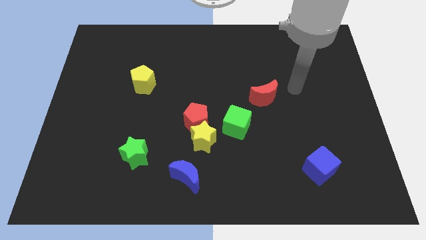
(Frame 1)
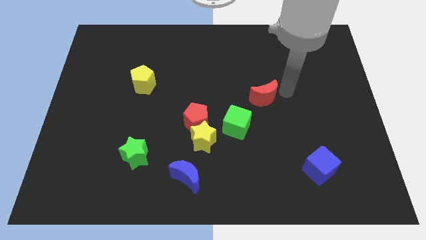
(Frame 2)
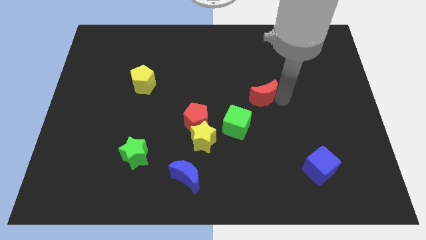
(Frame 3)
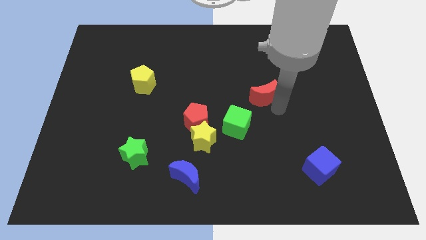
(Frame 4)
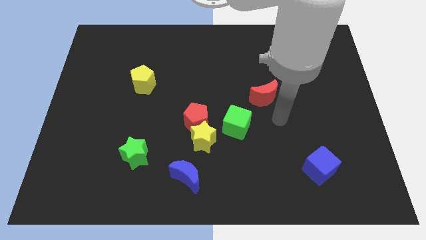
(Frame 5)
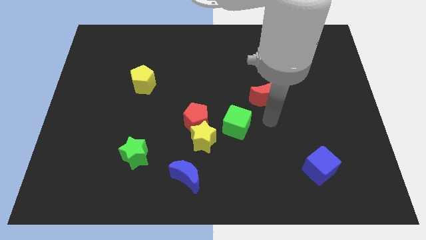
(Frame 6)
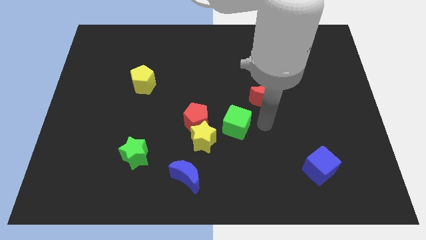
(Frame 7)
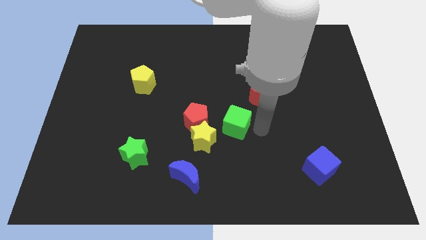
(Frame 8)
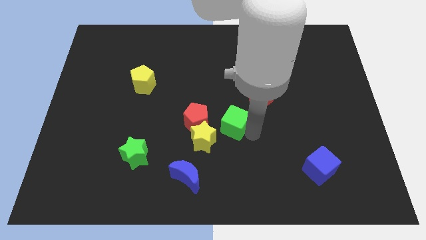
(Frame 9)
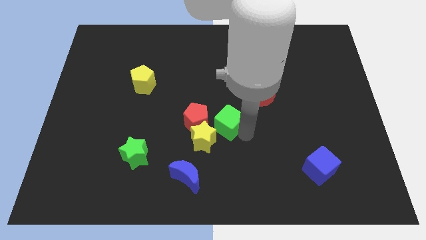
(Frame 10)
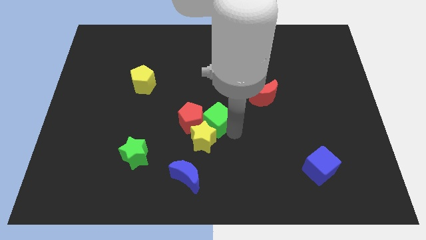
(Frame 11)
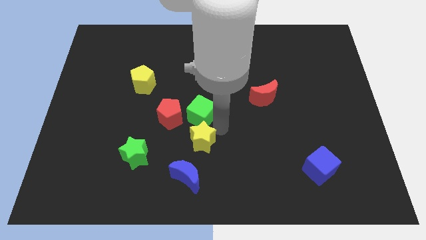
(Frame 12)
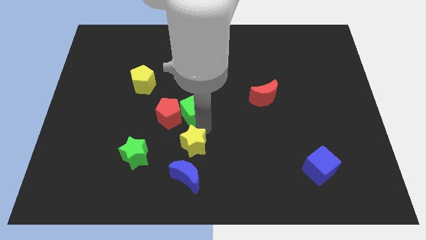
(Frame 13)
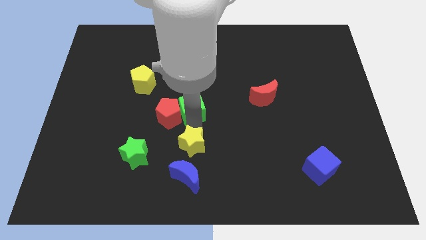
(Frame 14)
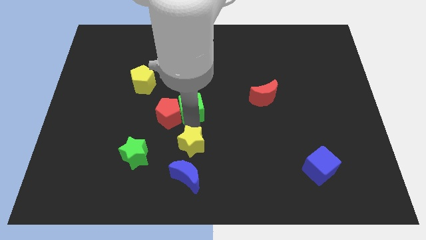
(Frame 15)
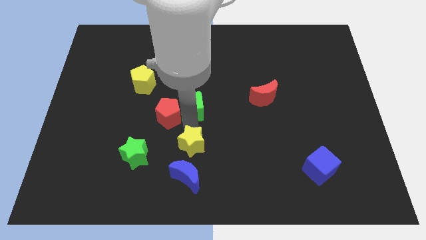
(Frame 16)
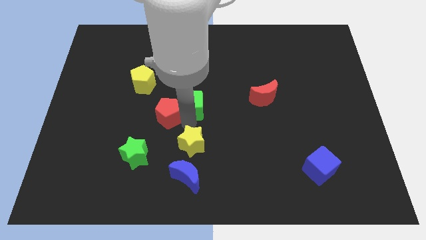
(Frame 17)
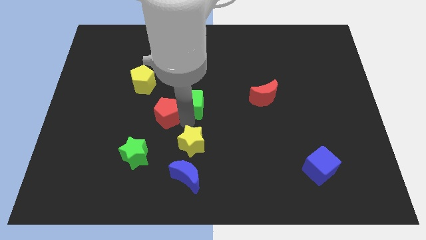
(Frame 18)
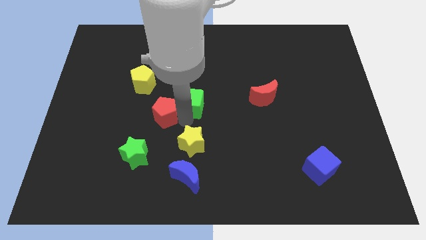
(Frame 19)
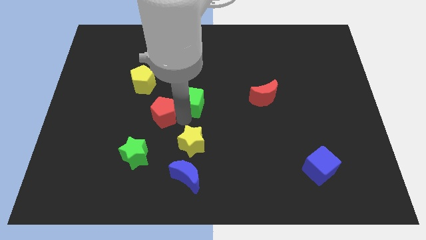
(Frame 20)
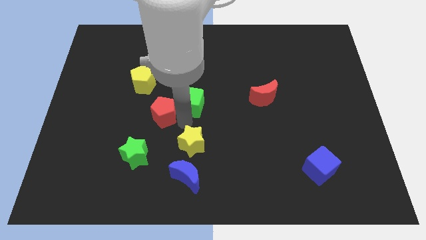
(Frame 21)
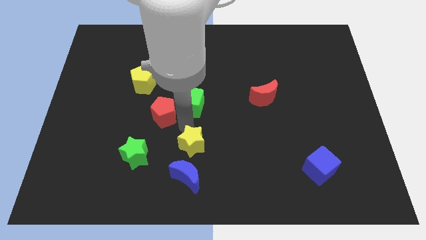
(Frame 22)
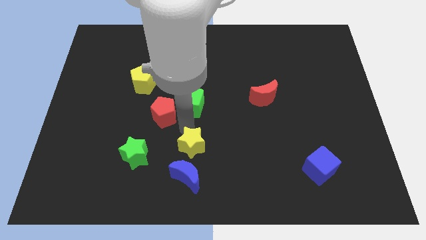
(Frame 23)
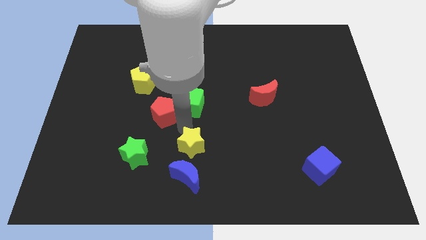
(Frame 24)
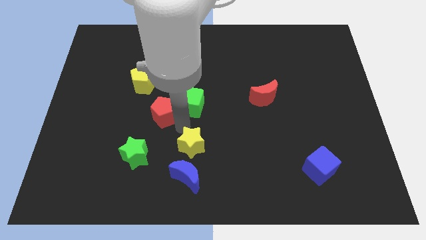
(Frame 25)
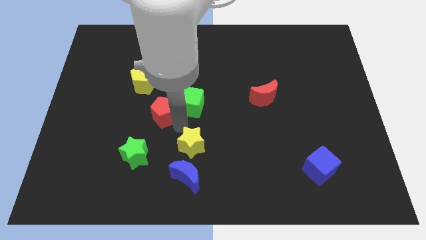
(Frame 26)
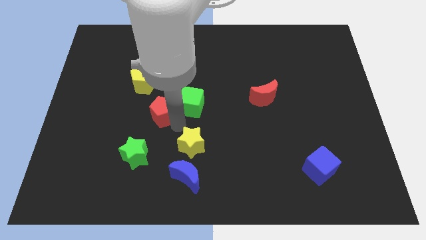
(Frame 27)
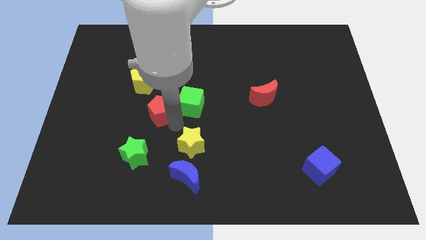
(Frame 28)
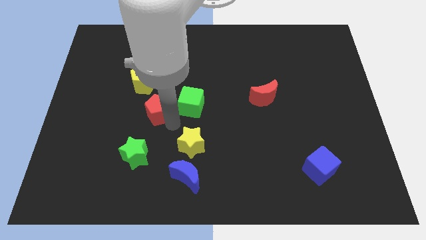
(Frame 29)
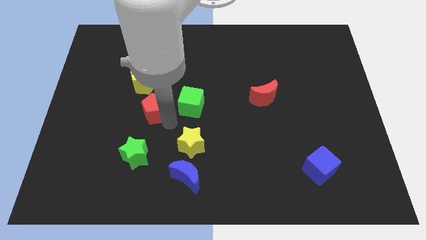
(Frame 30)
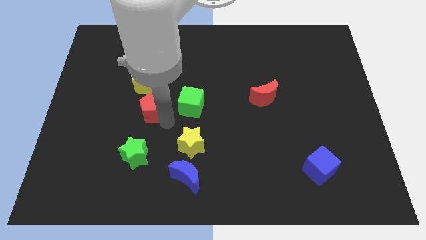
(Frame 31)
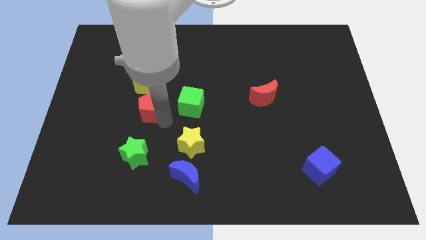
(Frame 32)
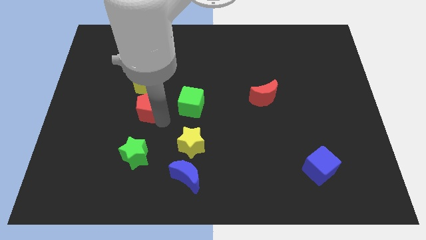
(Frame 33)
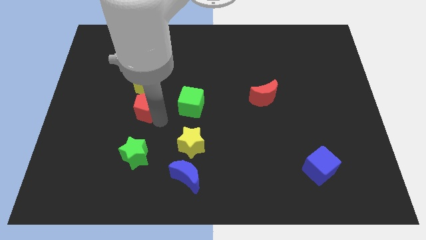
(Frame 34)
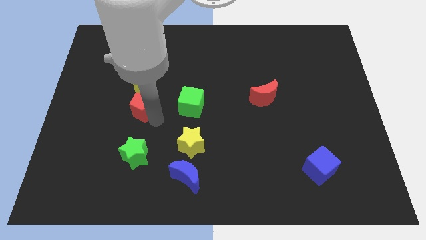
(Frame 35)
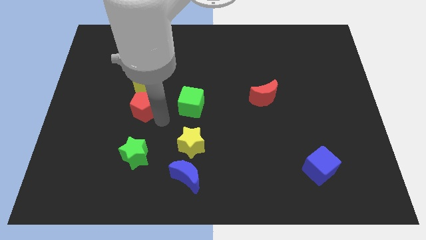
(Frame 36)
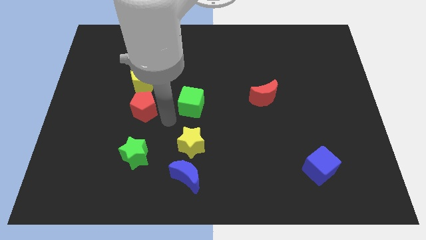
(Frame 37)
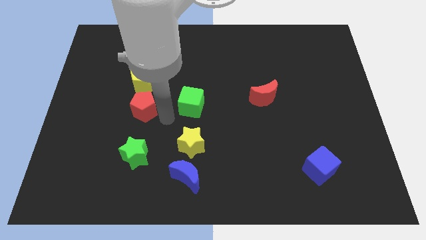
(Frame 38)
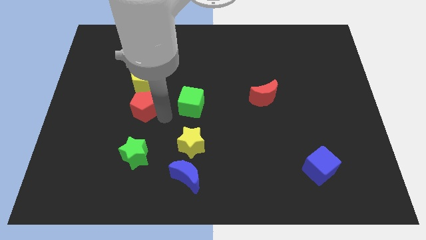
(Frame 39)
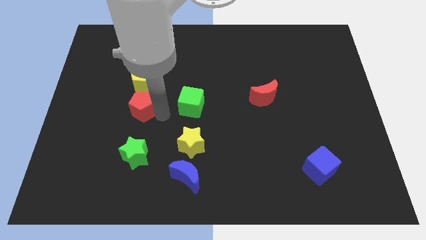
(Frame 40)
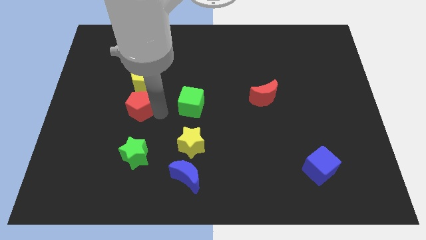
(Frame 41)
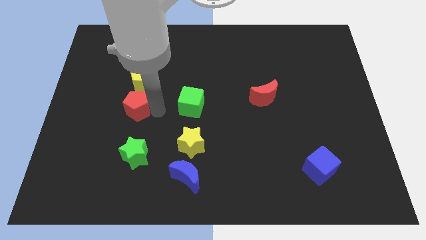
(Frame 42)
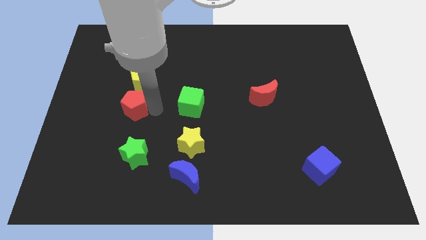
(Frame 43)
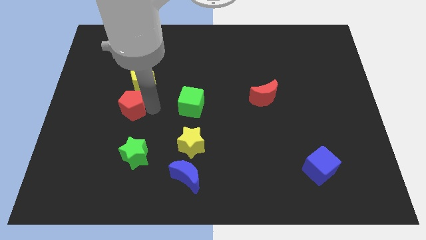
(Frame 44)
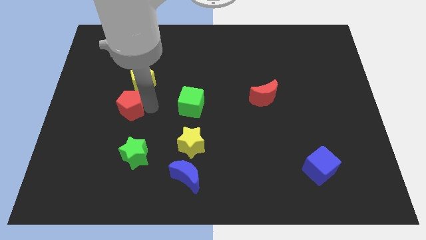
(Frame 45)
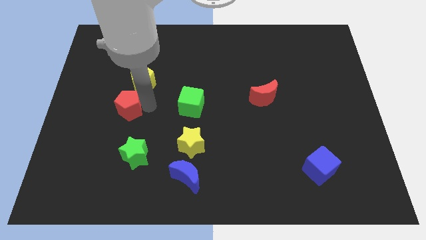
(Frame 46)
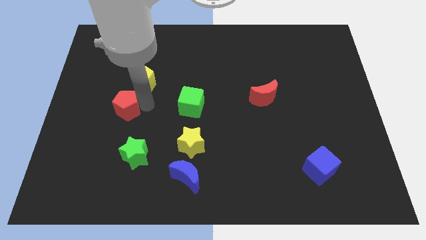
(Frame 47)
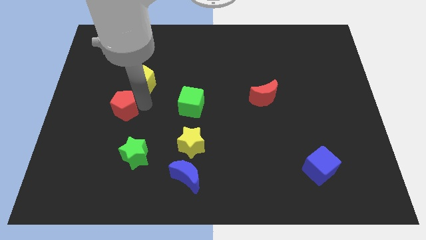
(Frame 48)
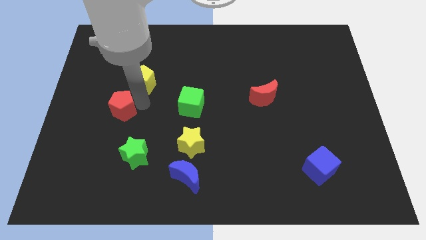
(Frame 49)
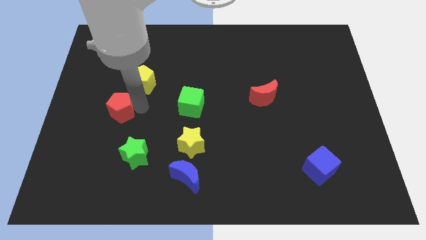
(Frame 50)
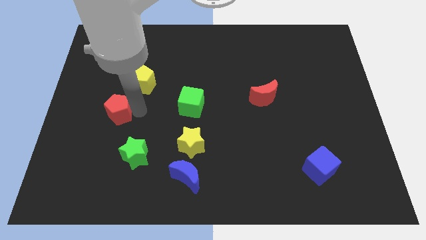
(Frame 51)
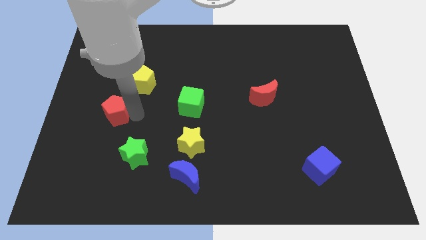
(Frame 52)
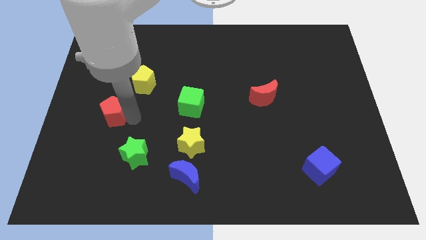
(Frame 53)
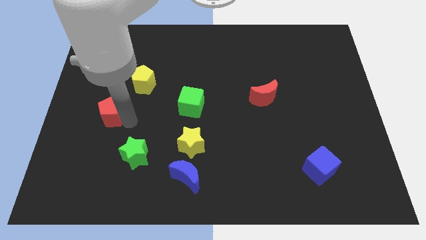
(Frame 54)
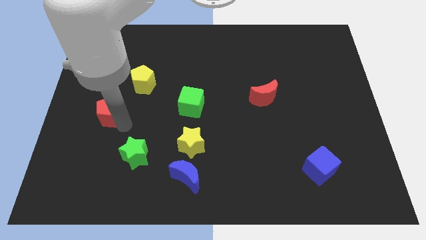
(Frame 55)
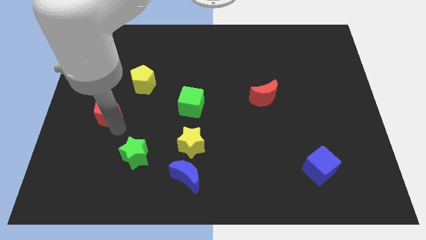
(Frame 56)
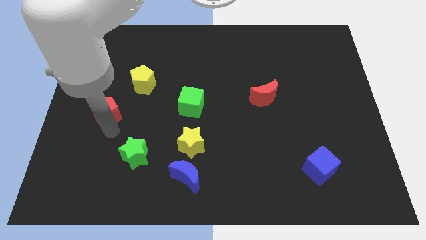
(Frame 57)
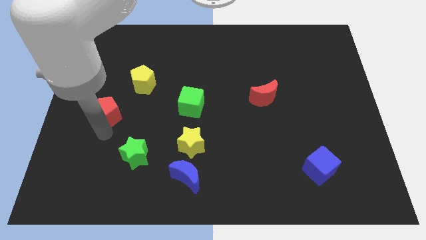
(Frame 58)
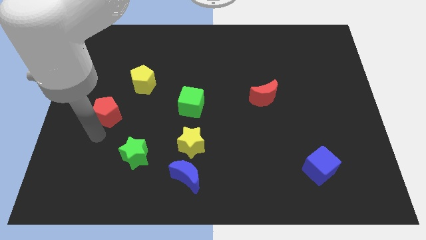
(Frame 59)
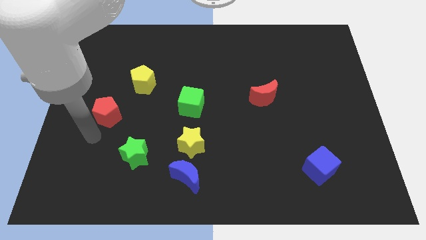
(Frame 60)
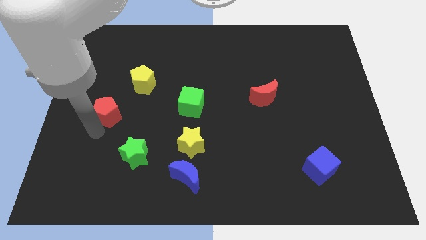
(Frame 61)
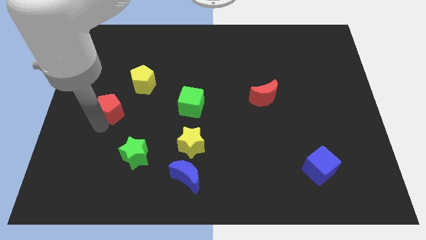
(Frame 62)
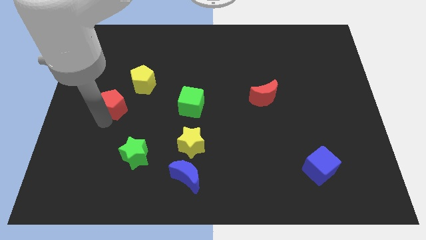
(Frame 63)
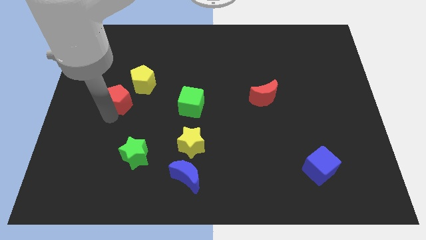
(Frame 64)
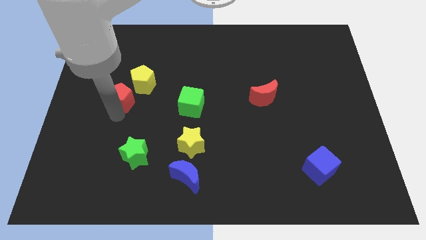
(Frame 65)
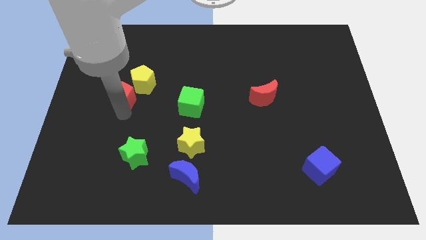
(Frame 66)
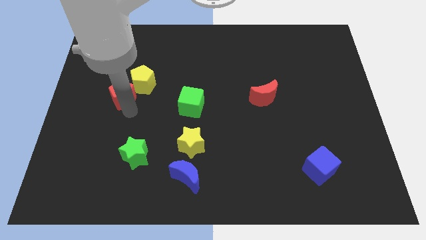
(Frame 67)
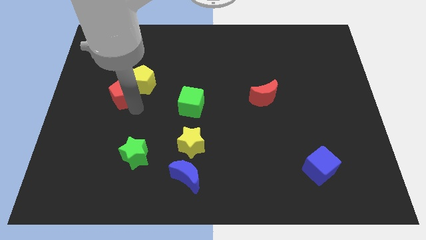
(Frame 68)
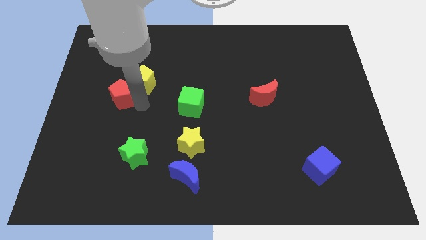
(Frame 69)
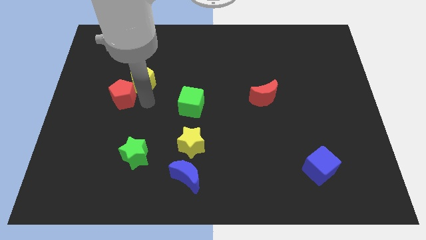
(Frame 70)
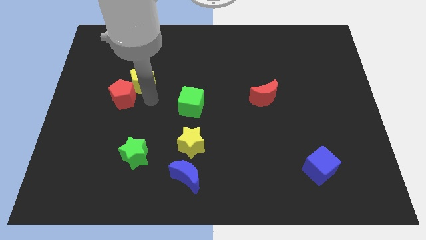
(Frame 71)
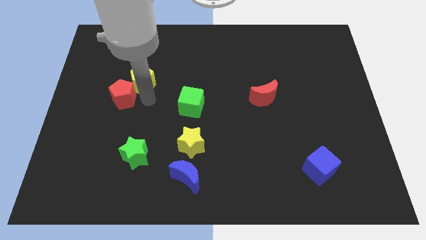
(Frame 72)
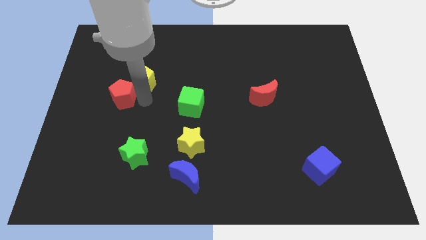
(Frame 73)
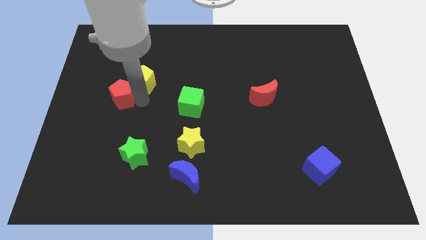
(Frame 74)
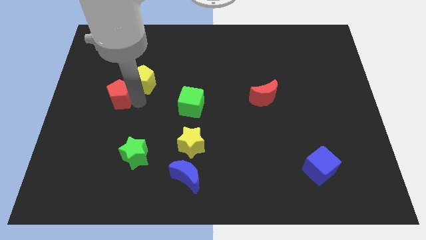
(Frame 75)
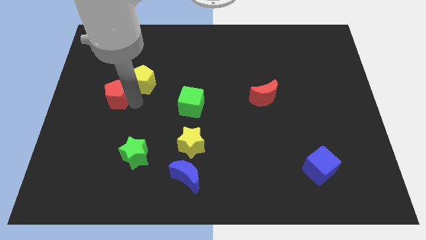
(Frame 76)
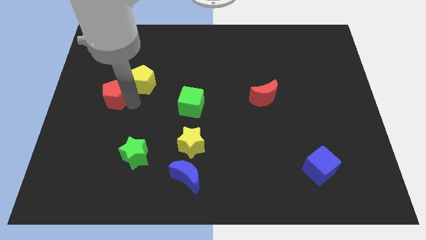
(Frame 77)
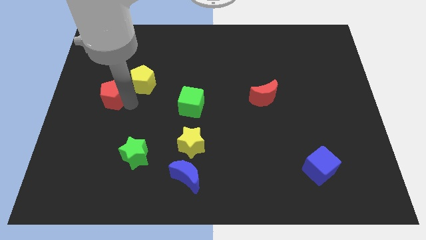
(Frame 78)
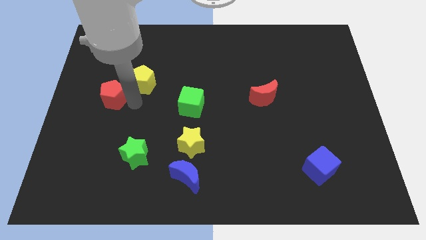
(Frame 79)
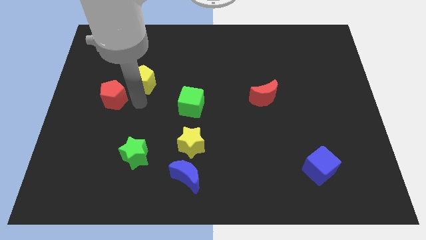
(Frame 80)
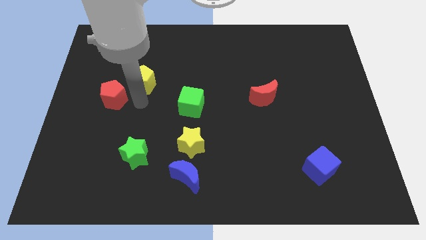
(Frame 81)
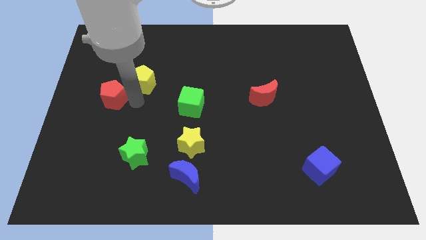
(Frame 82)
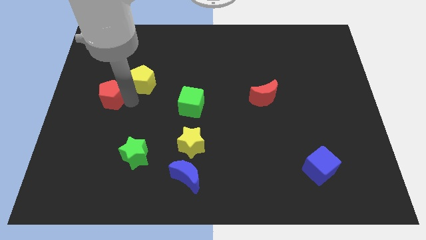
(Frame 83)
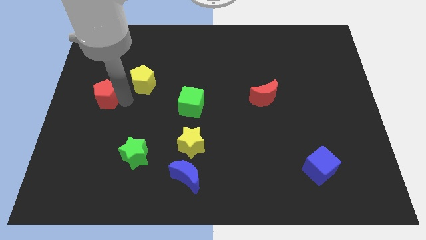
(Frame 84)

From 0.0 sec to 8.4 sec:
put the red pentagon to the left side
